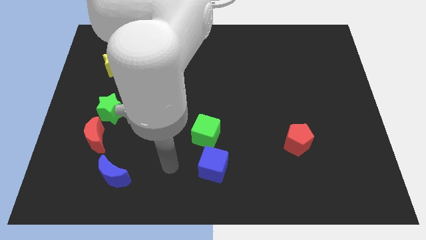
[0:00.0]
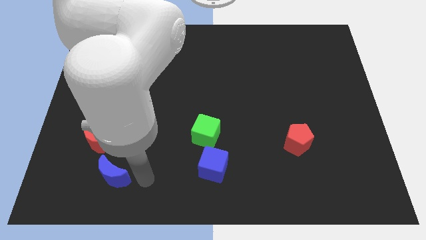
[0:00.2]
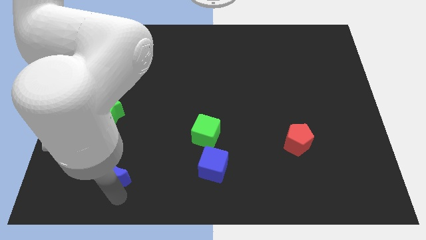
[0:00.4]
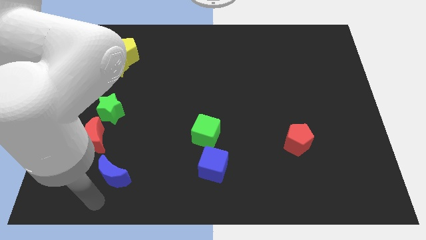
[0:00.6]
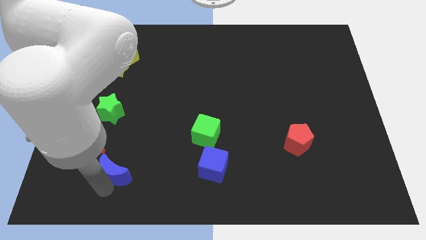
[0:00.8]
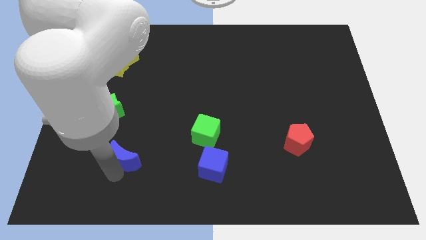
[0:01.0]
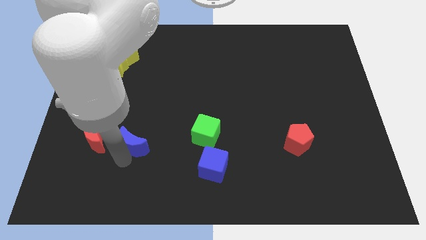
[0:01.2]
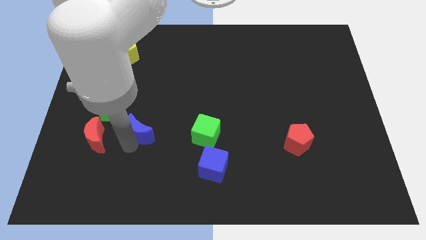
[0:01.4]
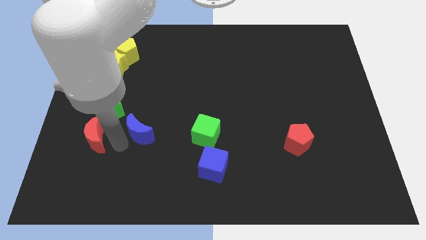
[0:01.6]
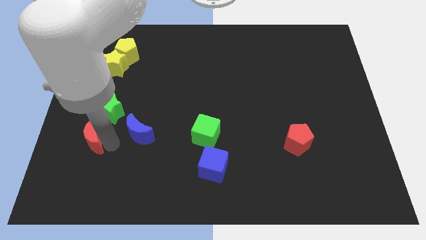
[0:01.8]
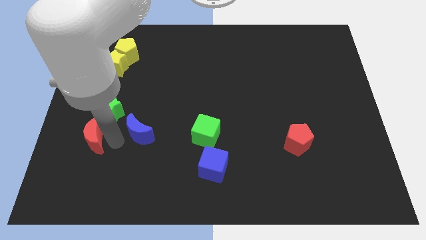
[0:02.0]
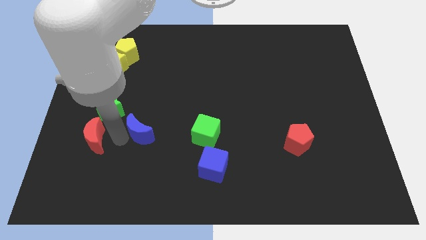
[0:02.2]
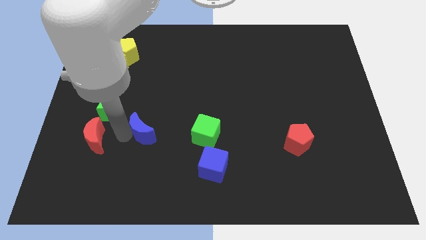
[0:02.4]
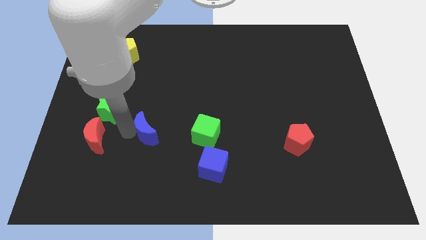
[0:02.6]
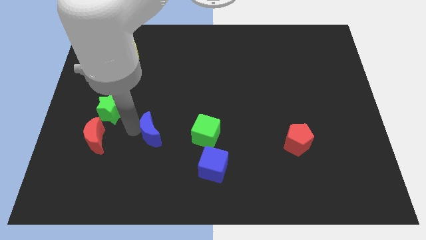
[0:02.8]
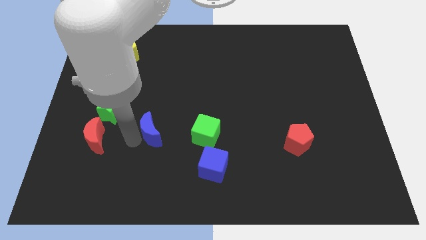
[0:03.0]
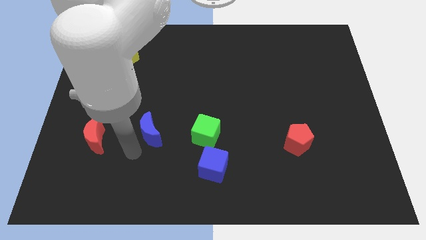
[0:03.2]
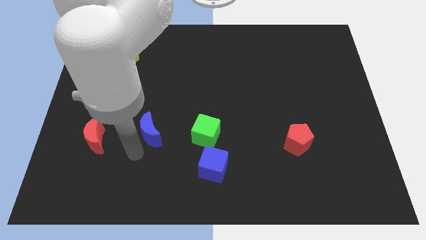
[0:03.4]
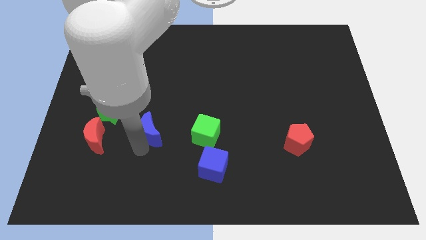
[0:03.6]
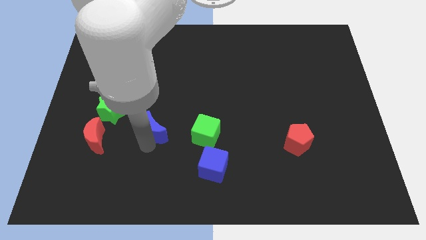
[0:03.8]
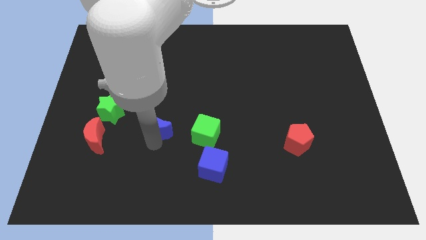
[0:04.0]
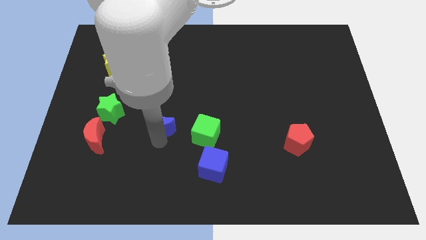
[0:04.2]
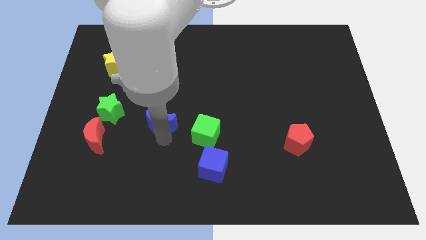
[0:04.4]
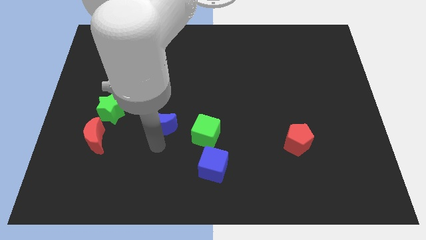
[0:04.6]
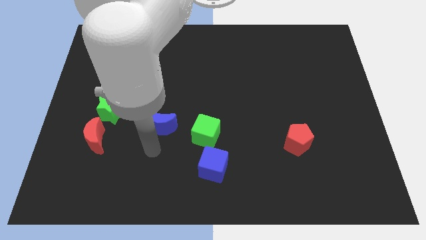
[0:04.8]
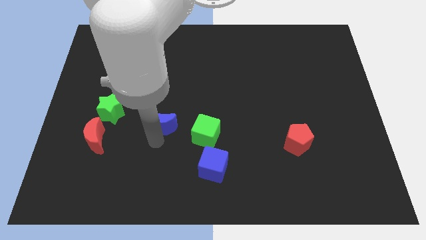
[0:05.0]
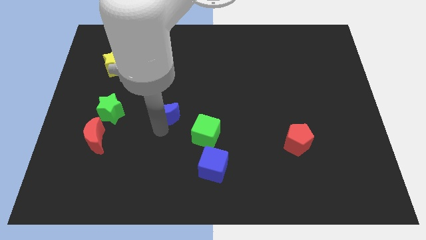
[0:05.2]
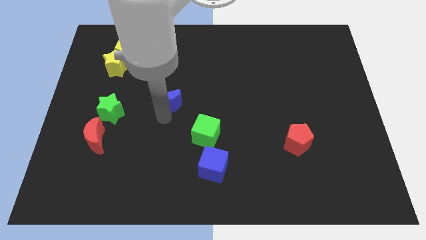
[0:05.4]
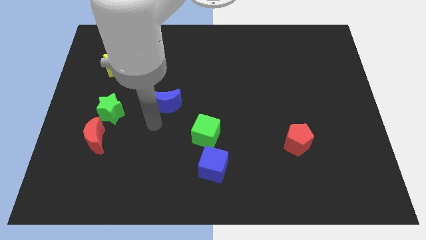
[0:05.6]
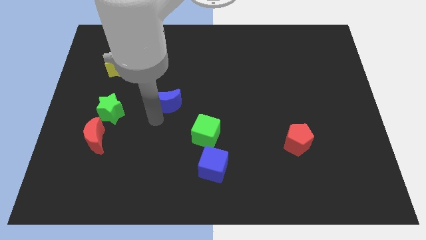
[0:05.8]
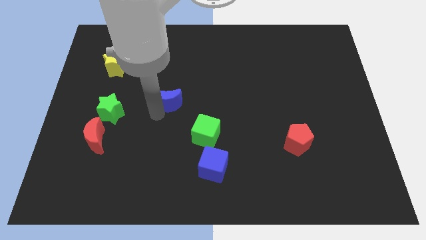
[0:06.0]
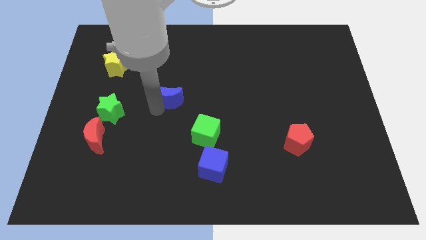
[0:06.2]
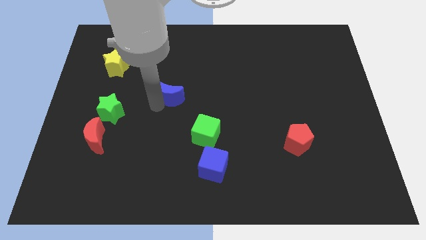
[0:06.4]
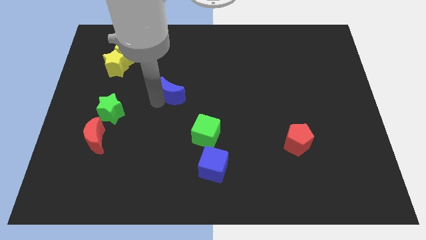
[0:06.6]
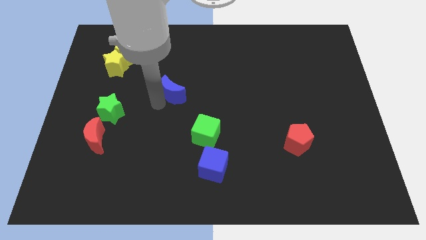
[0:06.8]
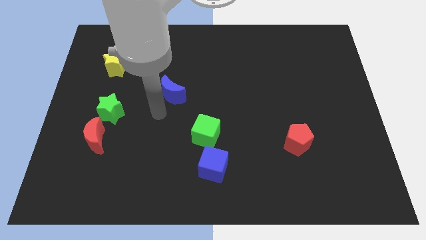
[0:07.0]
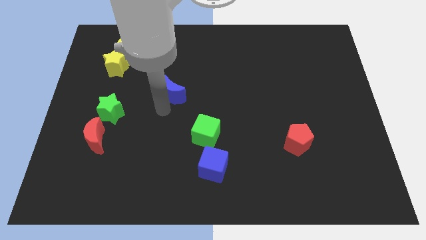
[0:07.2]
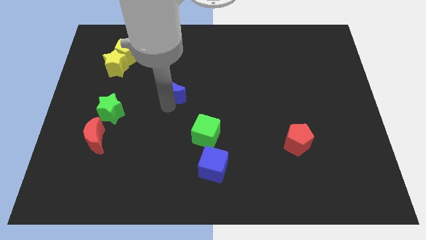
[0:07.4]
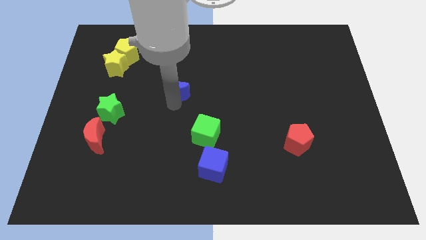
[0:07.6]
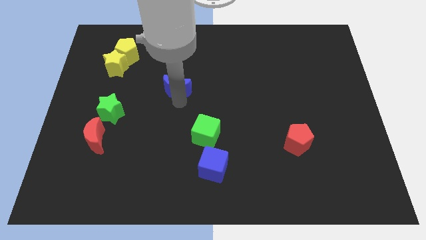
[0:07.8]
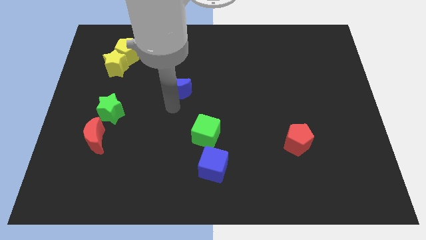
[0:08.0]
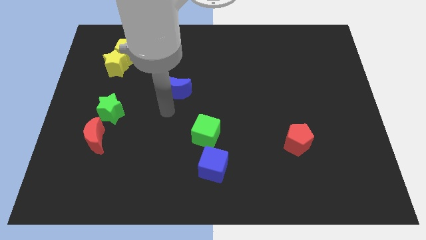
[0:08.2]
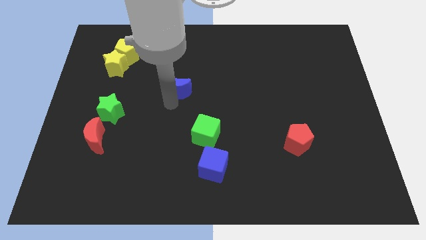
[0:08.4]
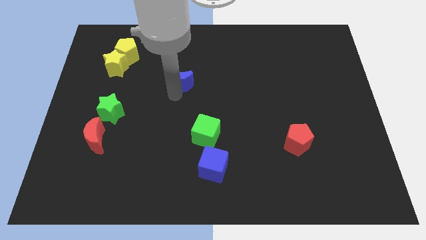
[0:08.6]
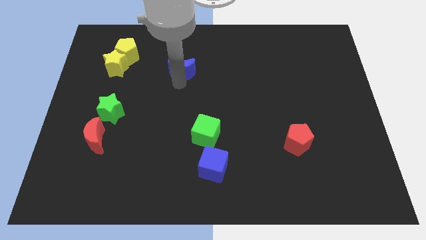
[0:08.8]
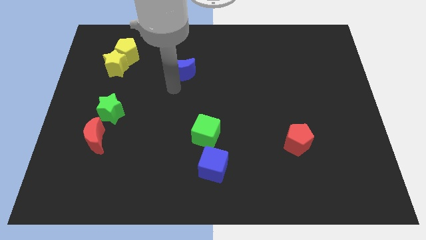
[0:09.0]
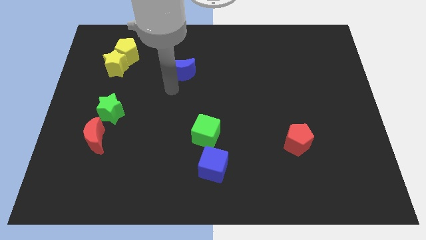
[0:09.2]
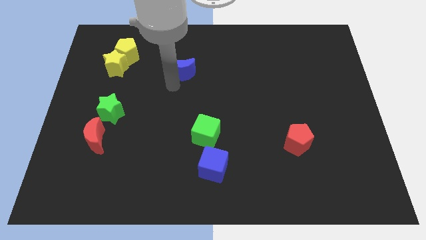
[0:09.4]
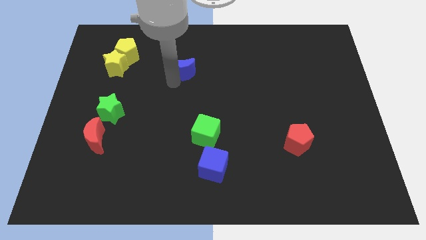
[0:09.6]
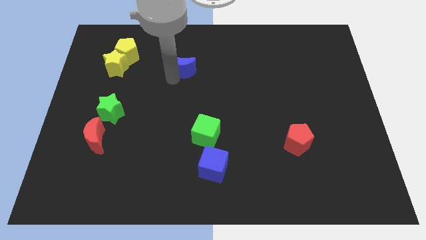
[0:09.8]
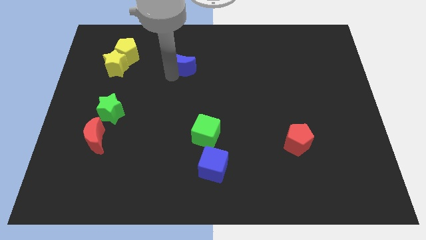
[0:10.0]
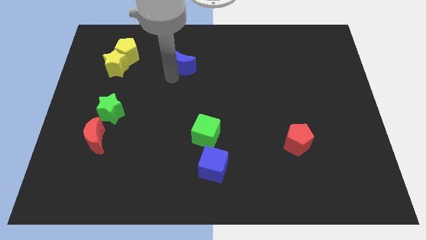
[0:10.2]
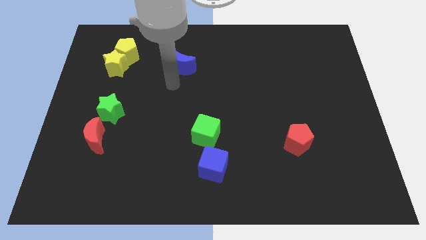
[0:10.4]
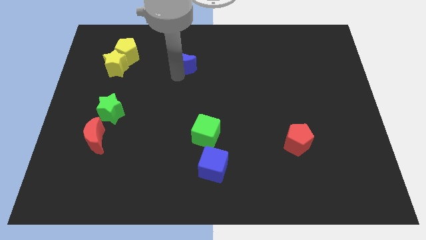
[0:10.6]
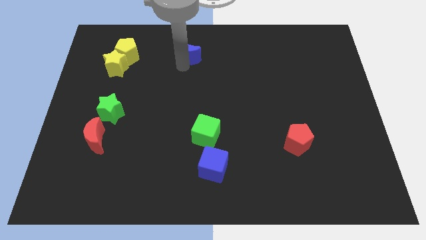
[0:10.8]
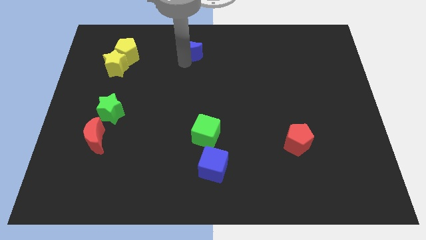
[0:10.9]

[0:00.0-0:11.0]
slide the blue moon to the top
